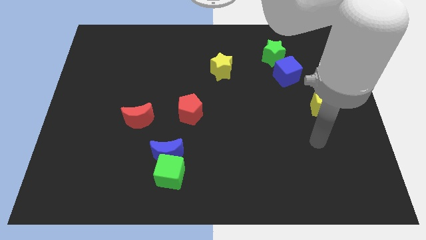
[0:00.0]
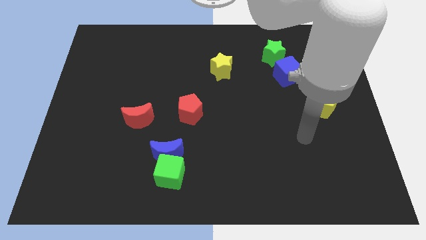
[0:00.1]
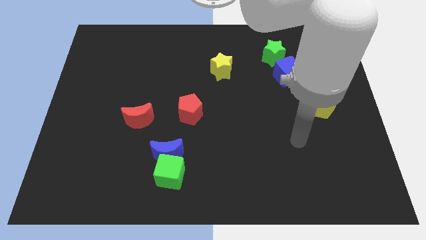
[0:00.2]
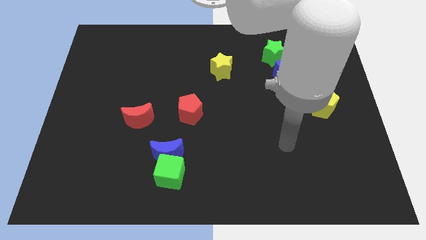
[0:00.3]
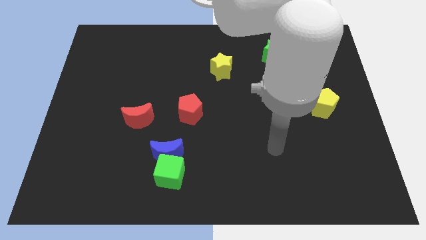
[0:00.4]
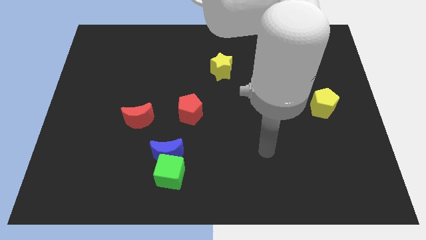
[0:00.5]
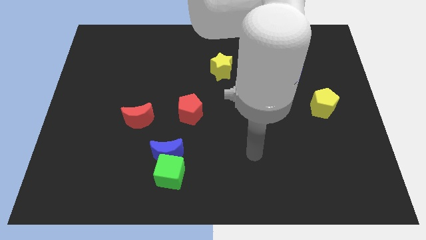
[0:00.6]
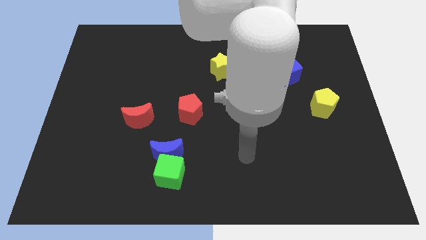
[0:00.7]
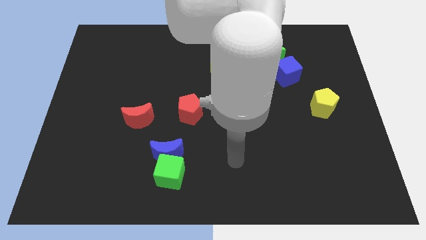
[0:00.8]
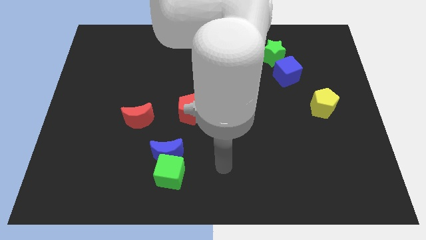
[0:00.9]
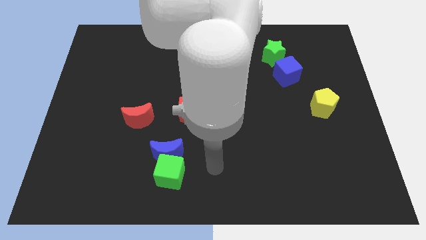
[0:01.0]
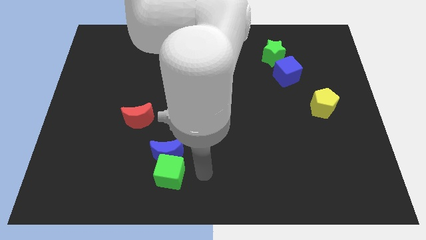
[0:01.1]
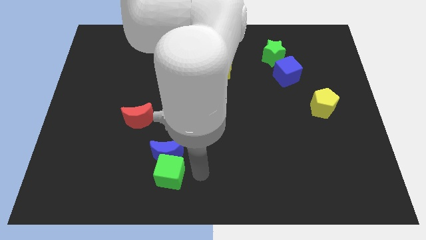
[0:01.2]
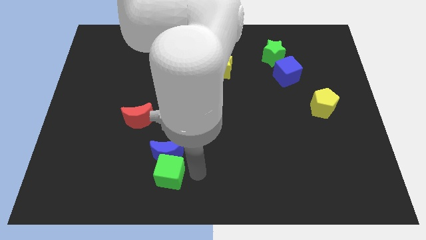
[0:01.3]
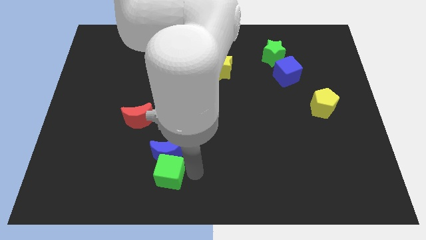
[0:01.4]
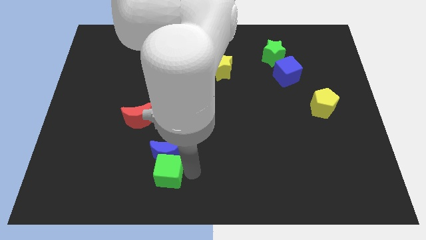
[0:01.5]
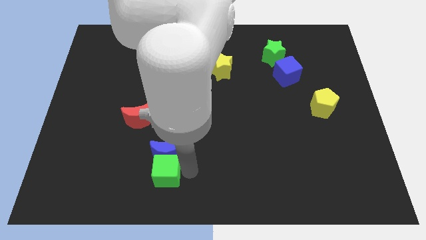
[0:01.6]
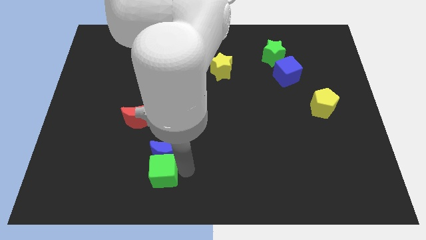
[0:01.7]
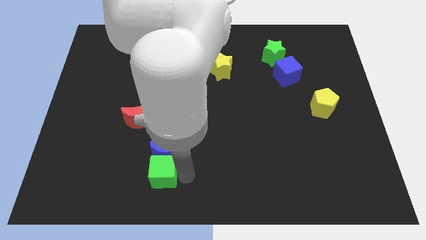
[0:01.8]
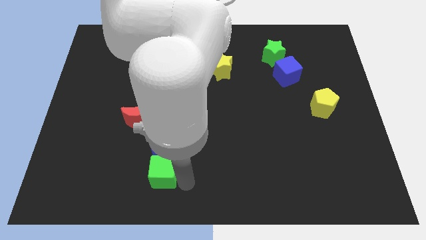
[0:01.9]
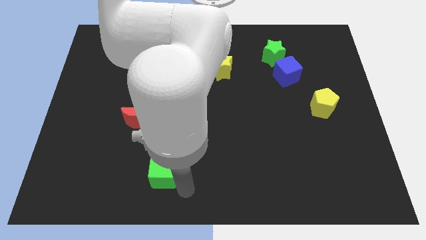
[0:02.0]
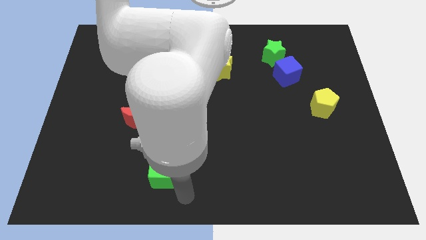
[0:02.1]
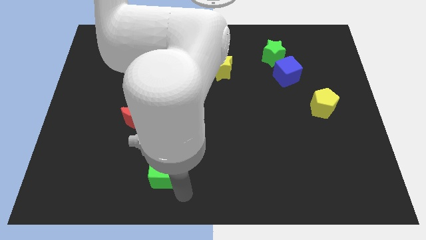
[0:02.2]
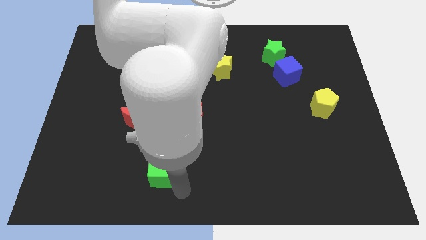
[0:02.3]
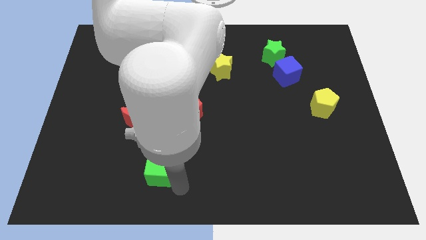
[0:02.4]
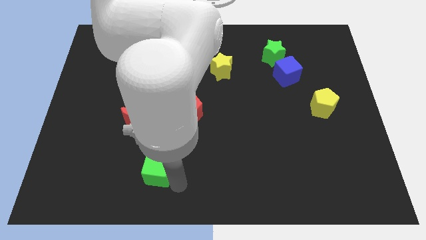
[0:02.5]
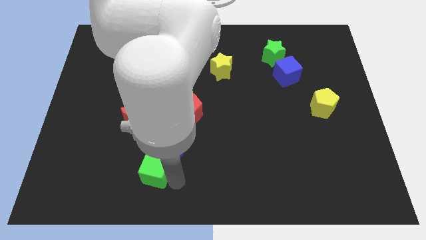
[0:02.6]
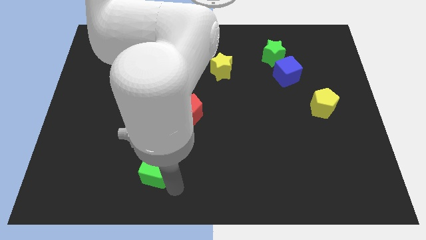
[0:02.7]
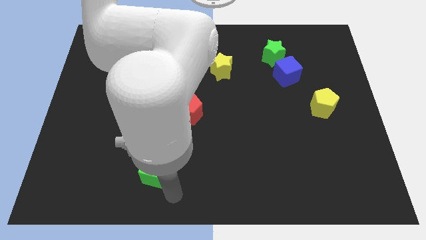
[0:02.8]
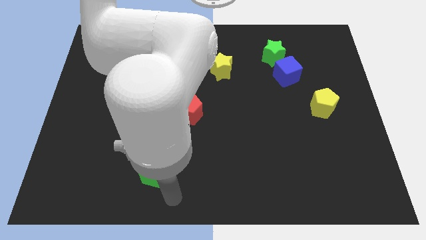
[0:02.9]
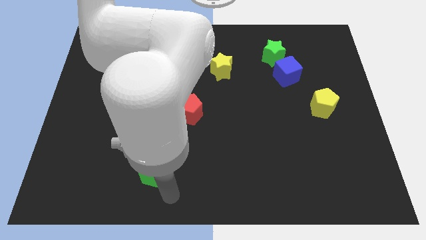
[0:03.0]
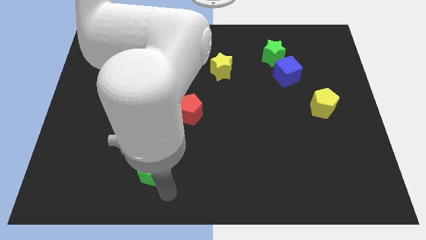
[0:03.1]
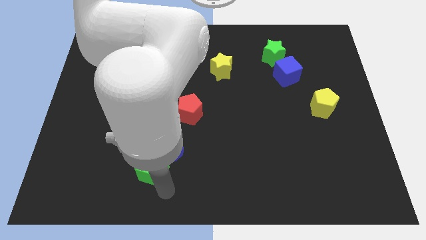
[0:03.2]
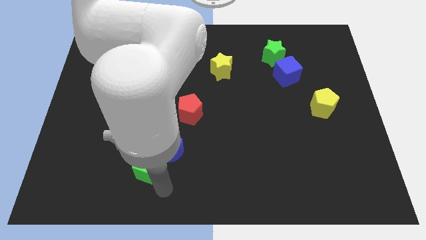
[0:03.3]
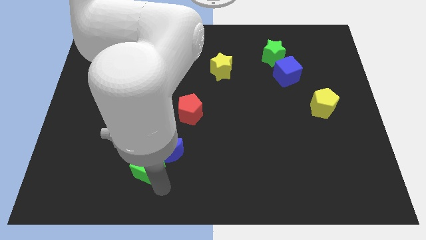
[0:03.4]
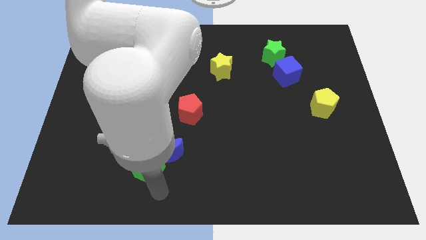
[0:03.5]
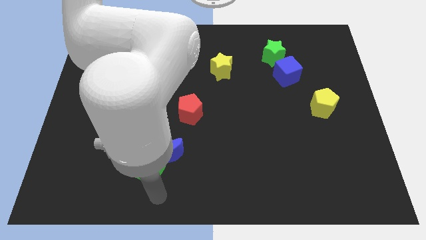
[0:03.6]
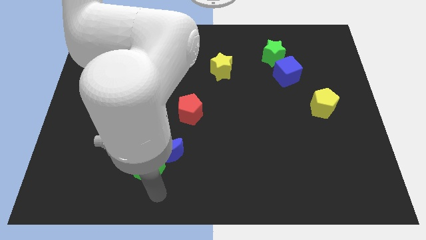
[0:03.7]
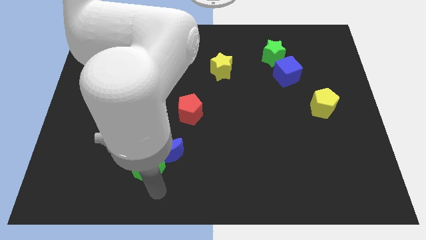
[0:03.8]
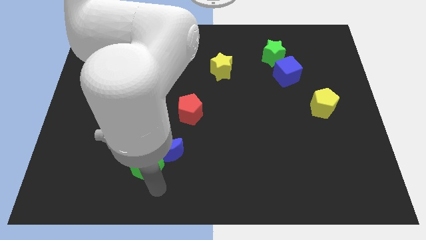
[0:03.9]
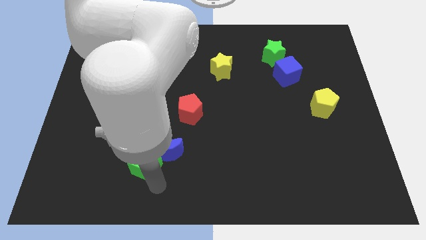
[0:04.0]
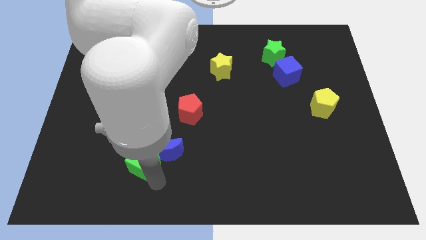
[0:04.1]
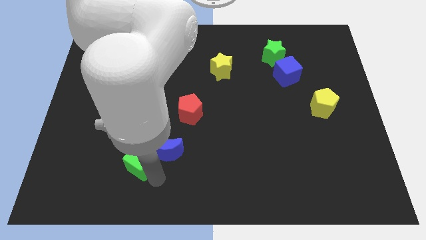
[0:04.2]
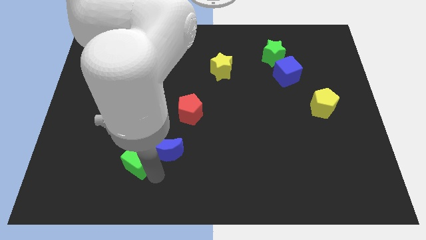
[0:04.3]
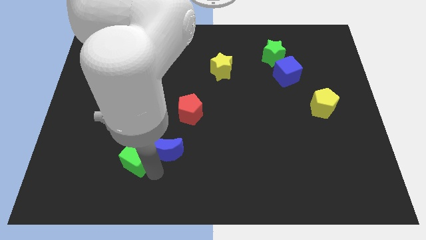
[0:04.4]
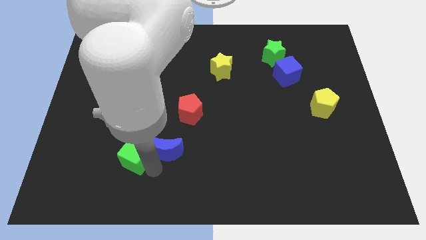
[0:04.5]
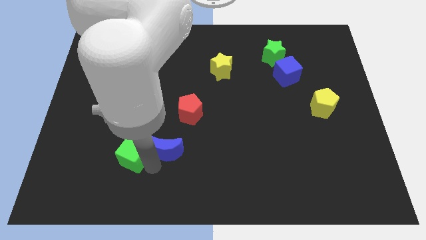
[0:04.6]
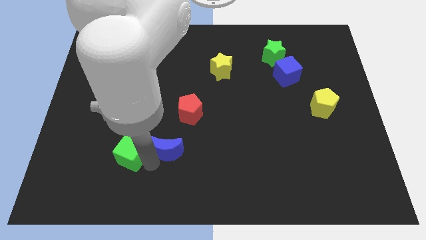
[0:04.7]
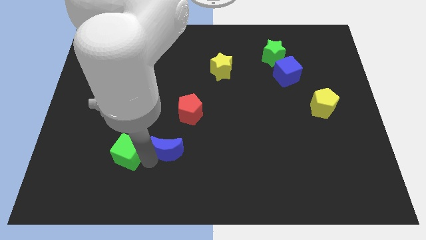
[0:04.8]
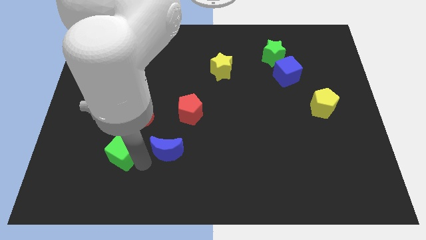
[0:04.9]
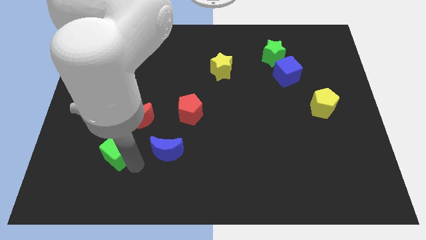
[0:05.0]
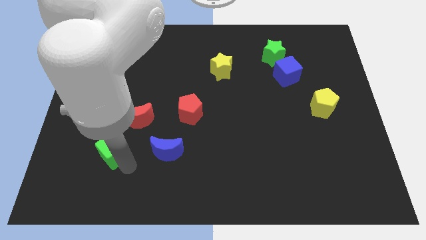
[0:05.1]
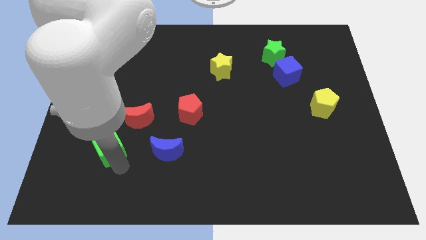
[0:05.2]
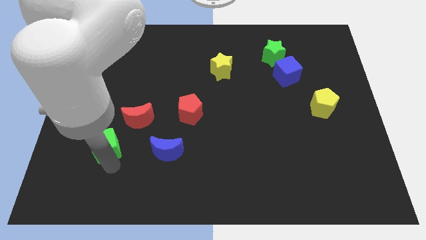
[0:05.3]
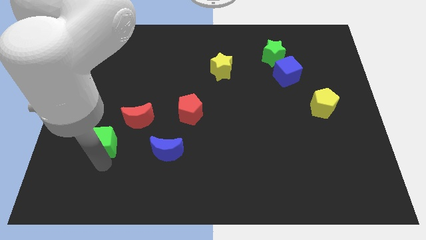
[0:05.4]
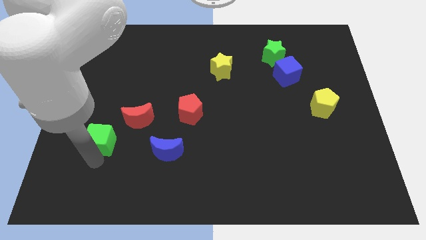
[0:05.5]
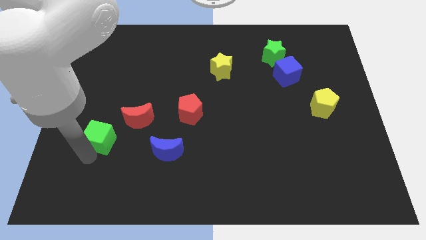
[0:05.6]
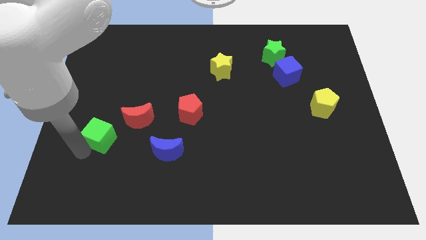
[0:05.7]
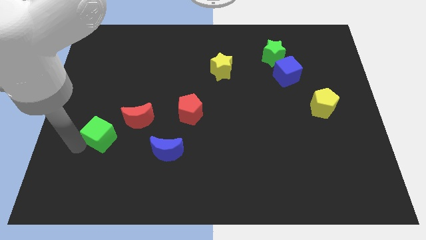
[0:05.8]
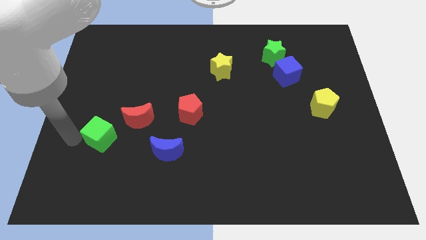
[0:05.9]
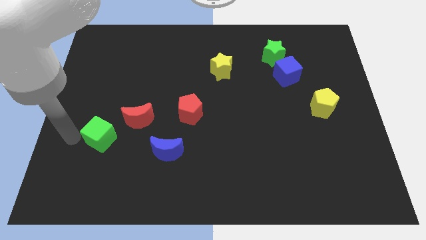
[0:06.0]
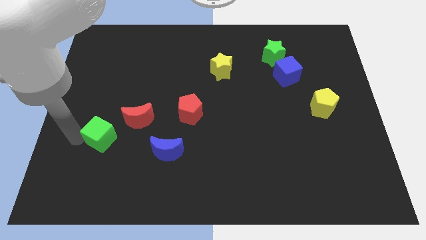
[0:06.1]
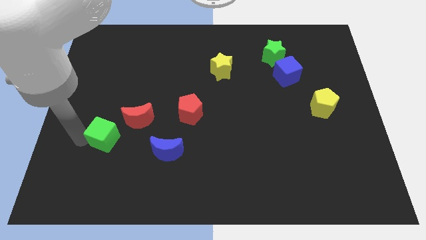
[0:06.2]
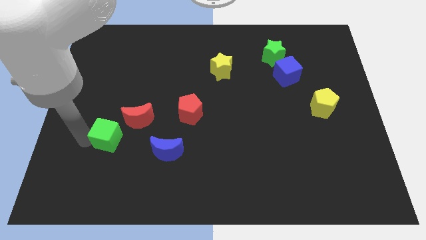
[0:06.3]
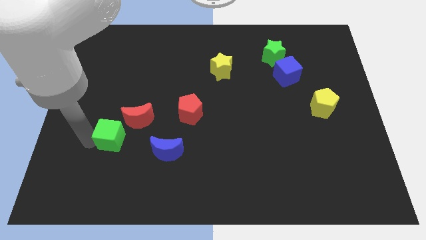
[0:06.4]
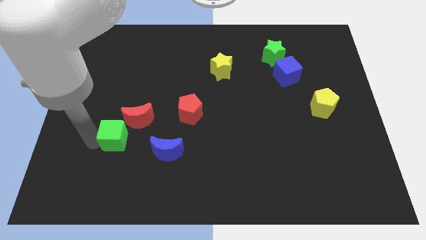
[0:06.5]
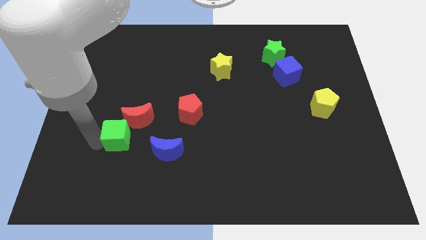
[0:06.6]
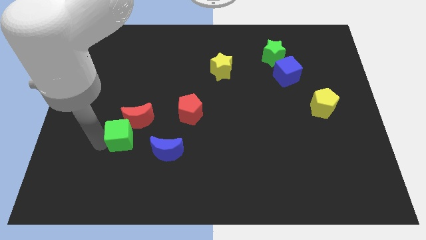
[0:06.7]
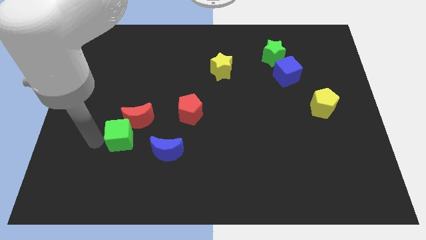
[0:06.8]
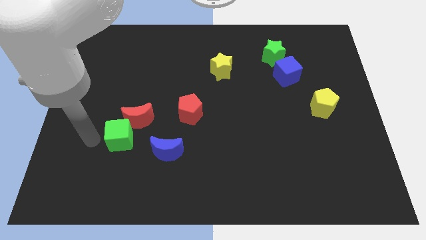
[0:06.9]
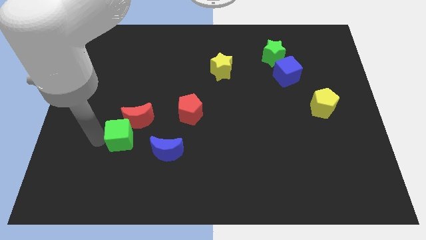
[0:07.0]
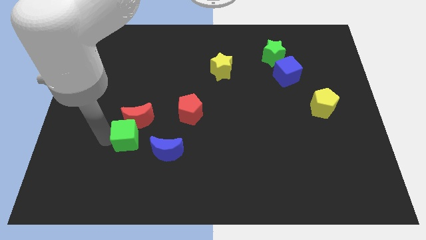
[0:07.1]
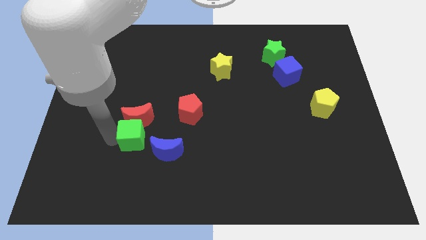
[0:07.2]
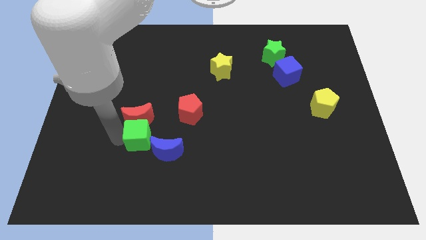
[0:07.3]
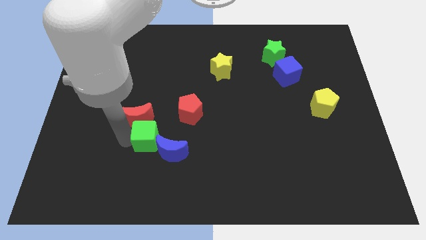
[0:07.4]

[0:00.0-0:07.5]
move the green cube up somewhat

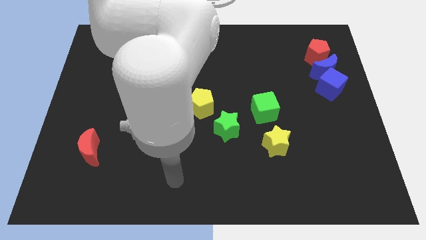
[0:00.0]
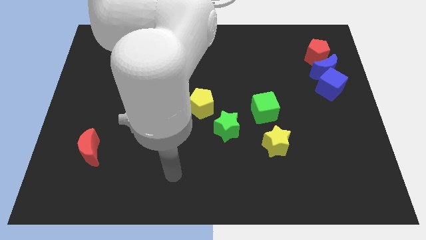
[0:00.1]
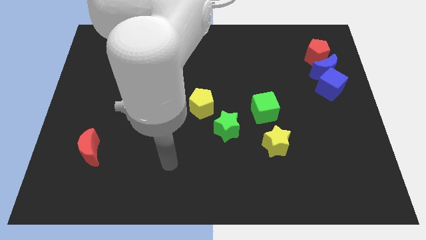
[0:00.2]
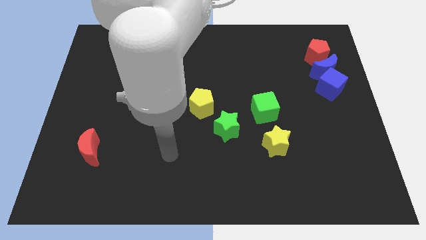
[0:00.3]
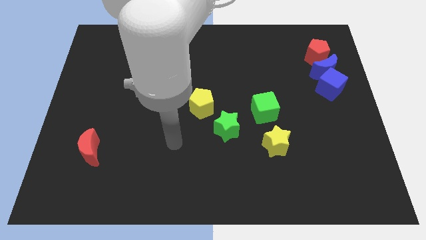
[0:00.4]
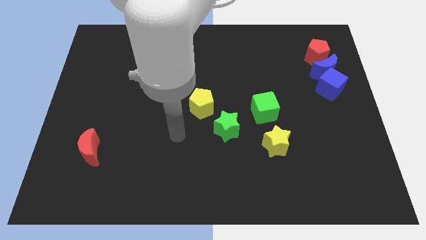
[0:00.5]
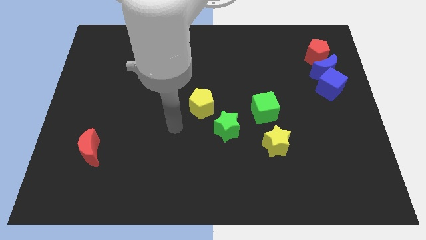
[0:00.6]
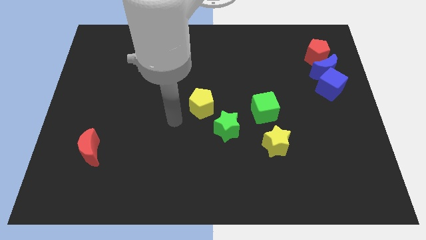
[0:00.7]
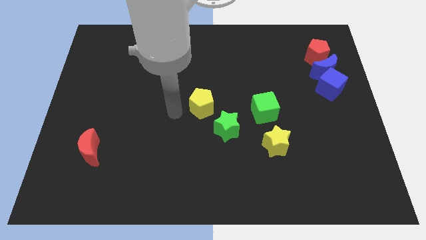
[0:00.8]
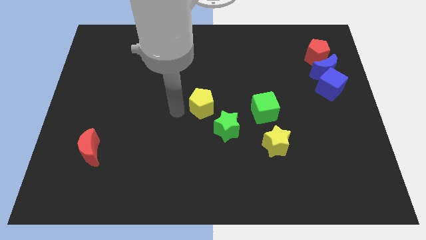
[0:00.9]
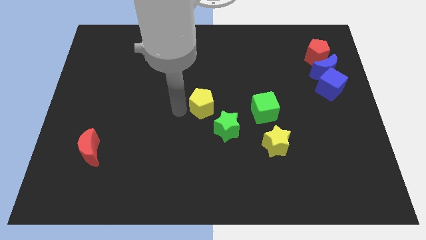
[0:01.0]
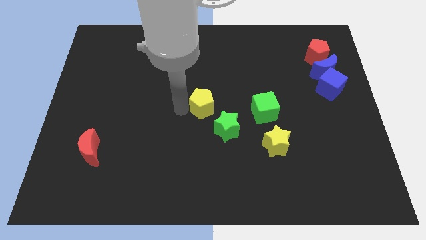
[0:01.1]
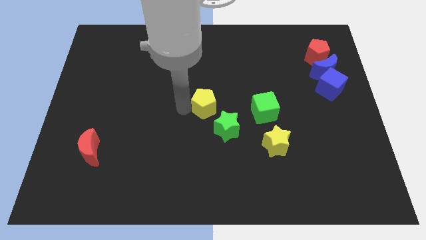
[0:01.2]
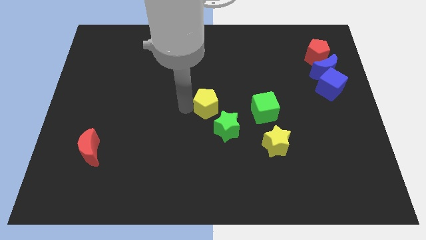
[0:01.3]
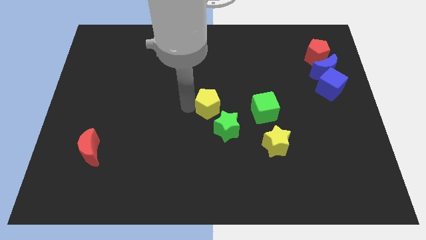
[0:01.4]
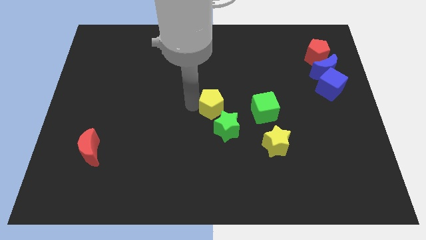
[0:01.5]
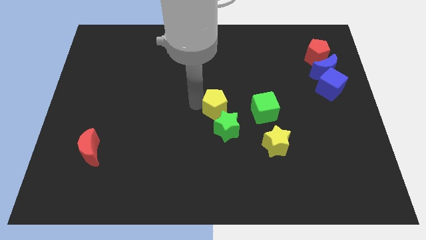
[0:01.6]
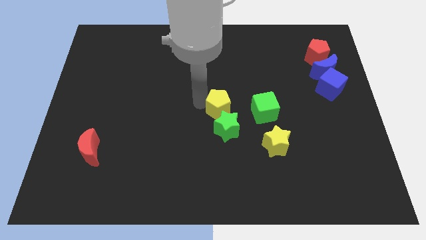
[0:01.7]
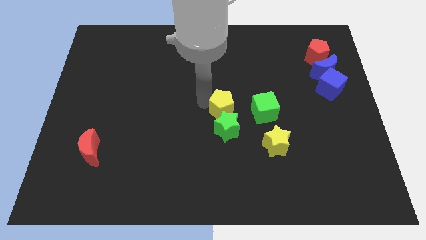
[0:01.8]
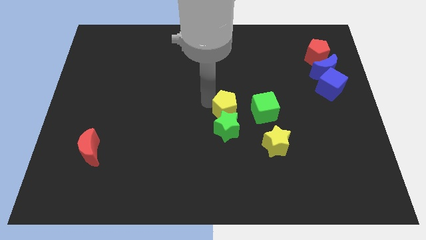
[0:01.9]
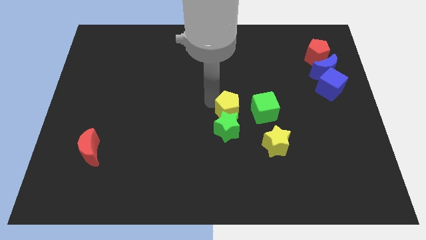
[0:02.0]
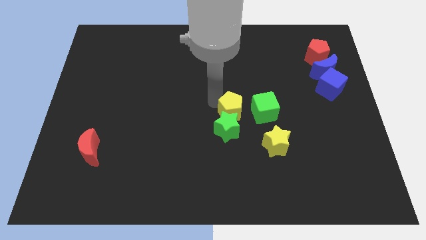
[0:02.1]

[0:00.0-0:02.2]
slide the yellow pentagon right a little
